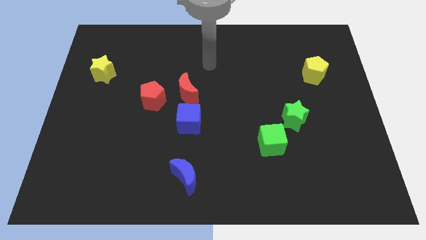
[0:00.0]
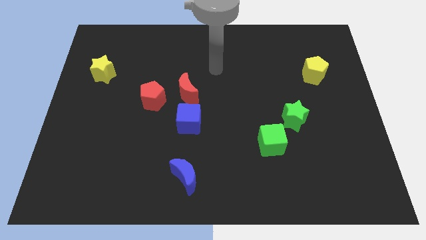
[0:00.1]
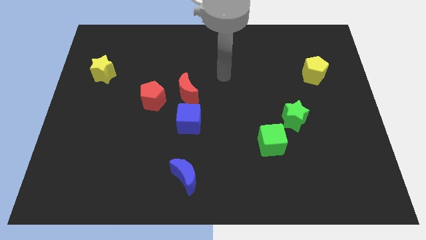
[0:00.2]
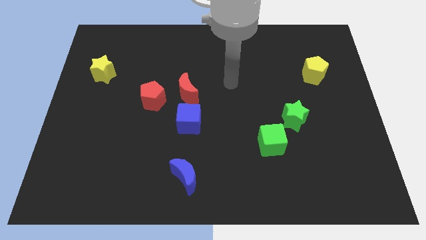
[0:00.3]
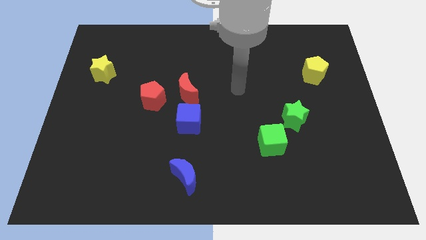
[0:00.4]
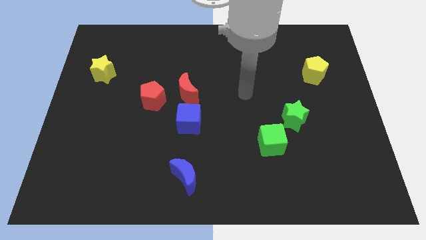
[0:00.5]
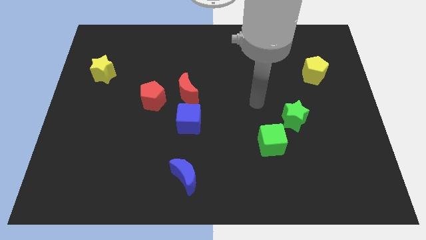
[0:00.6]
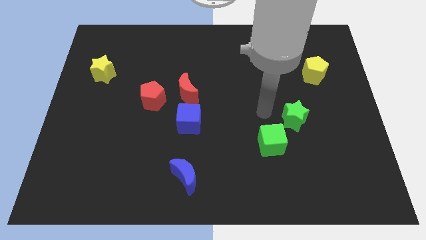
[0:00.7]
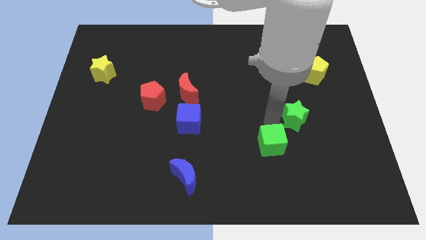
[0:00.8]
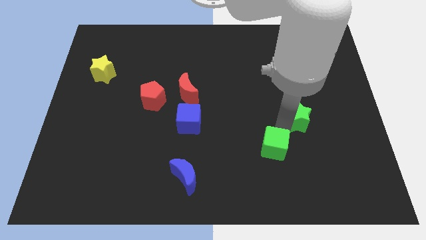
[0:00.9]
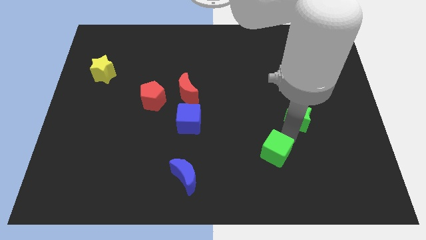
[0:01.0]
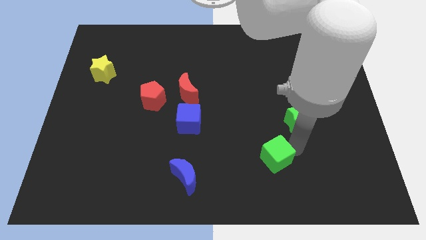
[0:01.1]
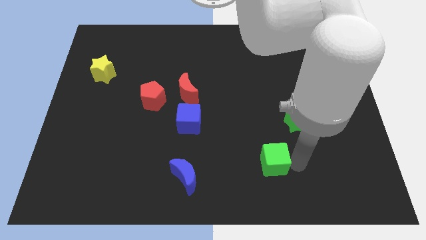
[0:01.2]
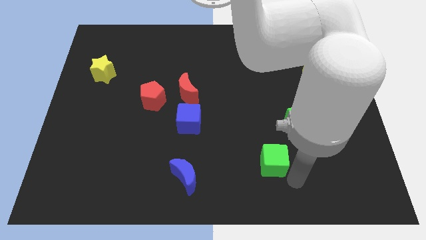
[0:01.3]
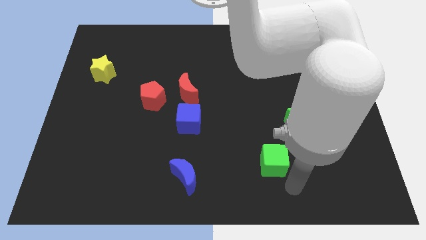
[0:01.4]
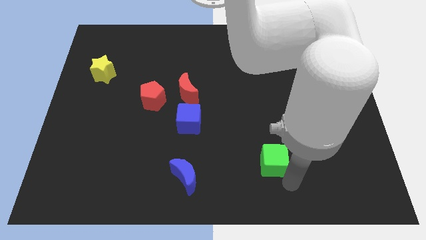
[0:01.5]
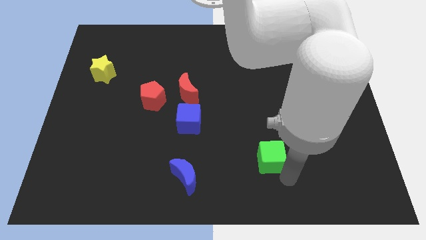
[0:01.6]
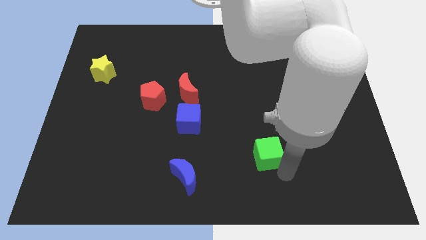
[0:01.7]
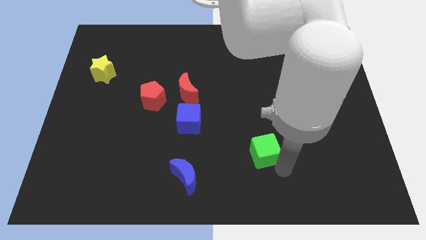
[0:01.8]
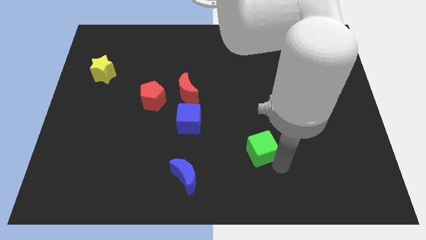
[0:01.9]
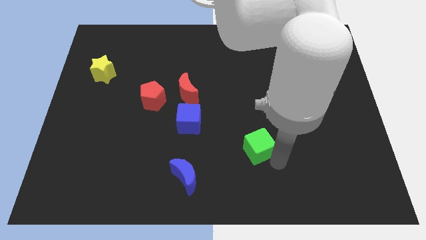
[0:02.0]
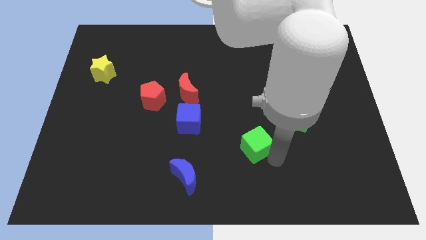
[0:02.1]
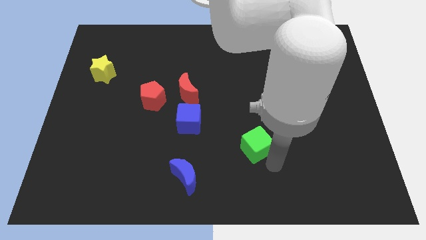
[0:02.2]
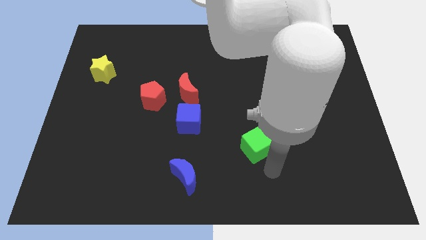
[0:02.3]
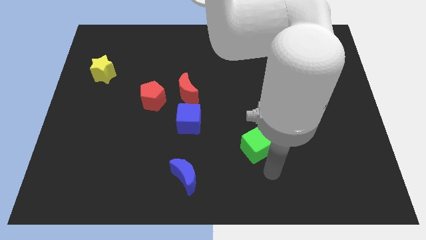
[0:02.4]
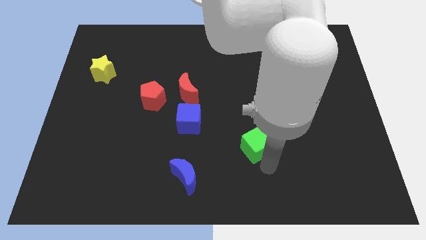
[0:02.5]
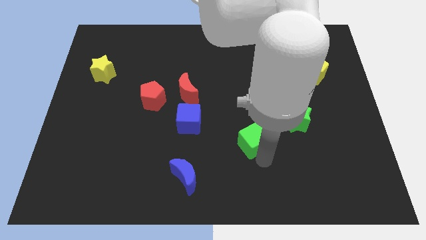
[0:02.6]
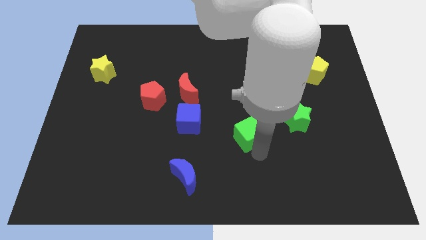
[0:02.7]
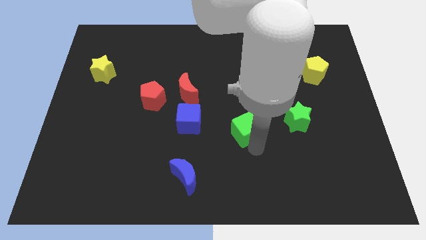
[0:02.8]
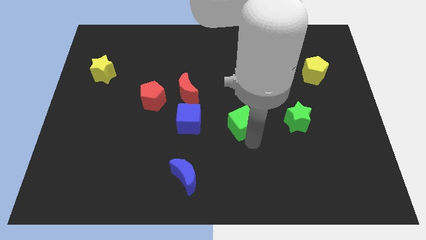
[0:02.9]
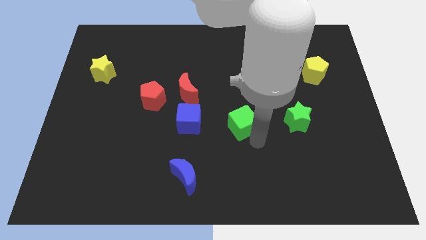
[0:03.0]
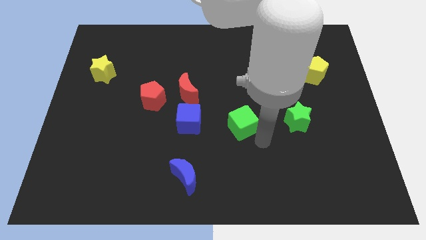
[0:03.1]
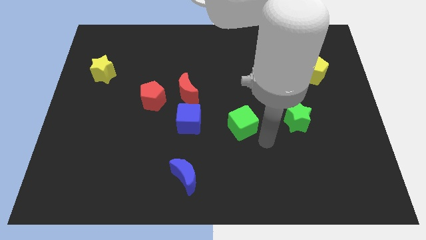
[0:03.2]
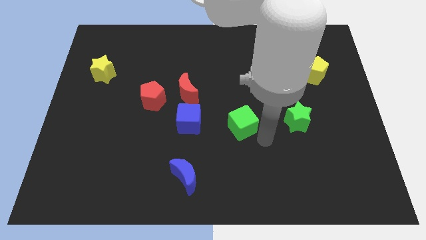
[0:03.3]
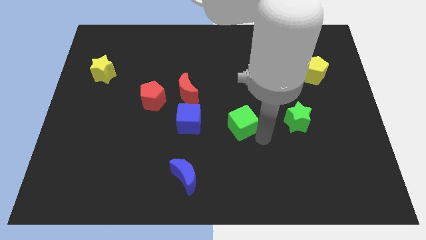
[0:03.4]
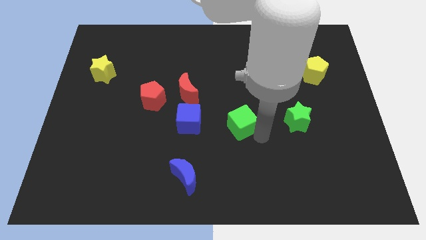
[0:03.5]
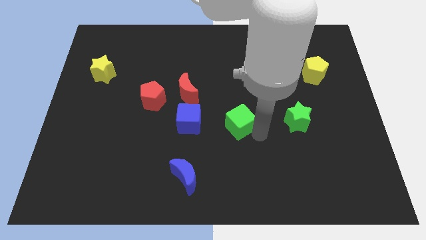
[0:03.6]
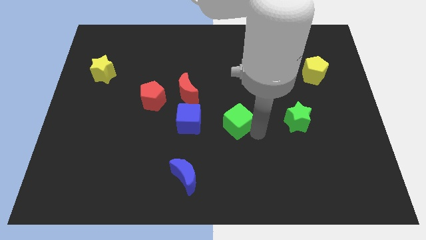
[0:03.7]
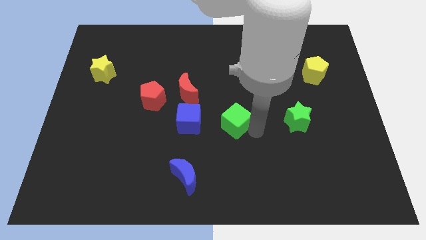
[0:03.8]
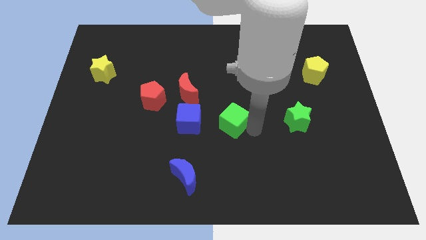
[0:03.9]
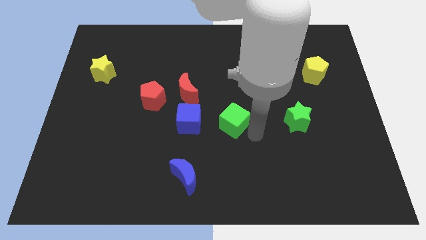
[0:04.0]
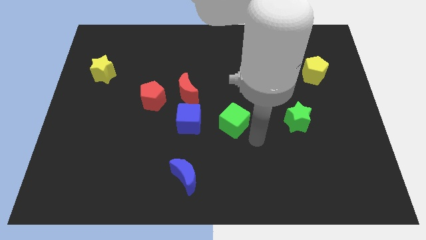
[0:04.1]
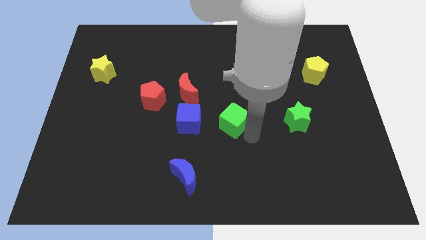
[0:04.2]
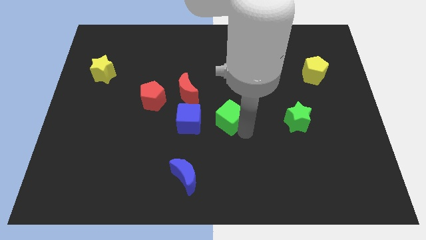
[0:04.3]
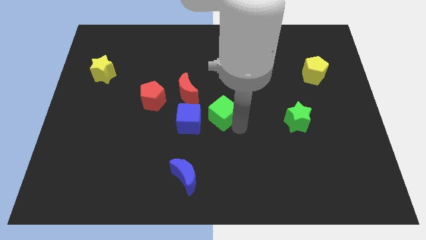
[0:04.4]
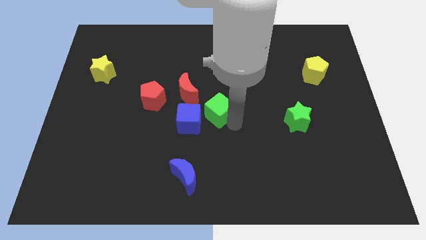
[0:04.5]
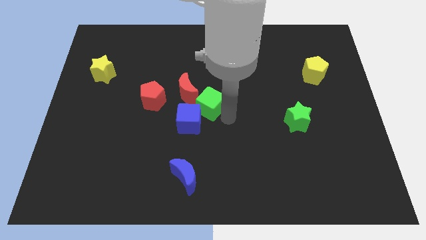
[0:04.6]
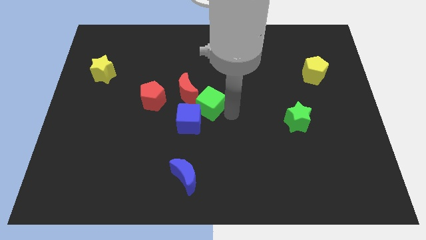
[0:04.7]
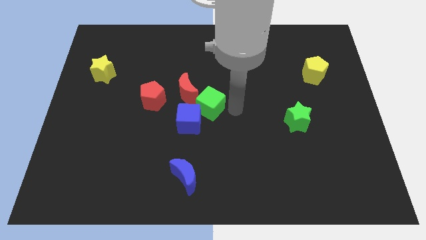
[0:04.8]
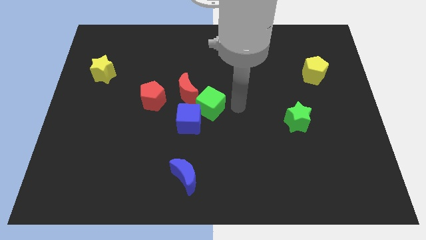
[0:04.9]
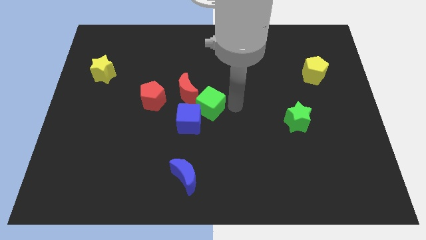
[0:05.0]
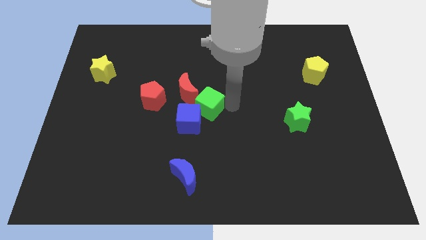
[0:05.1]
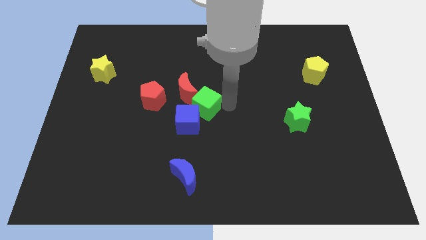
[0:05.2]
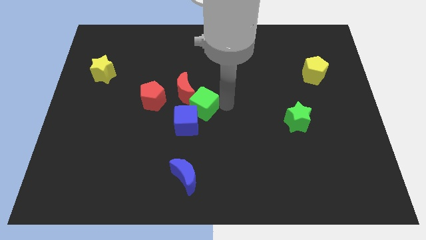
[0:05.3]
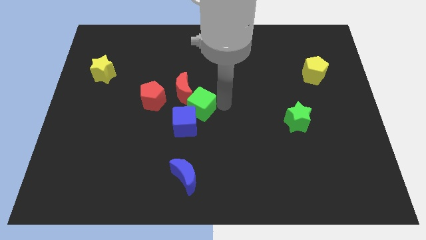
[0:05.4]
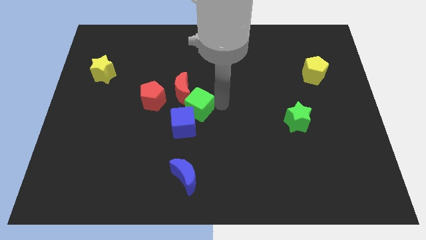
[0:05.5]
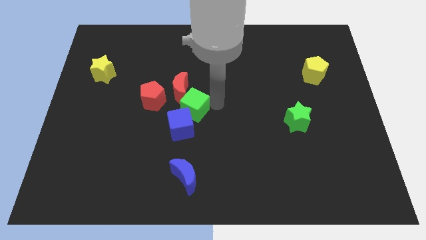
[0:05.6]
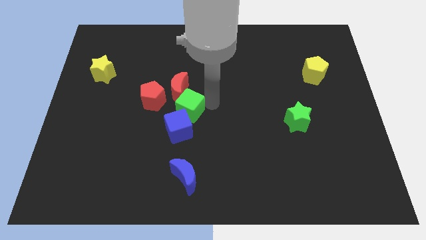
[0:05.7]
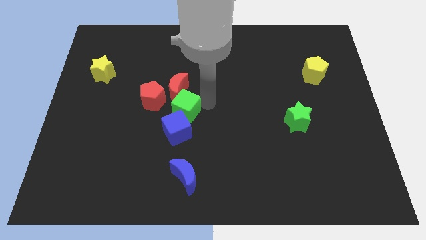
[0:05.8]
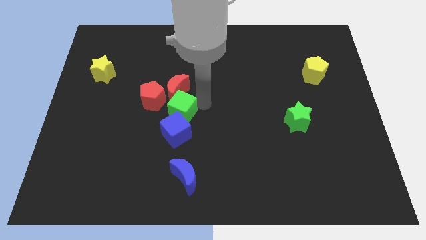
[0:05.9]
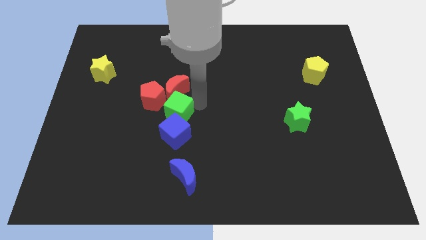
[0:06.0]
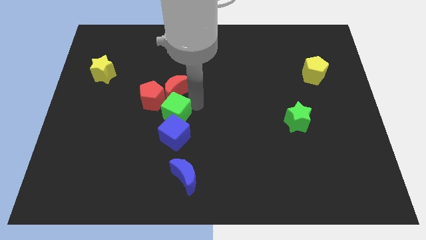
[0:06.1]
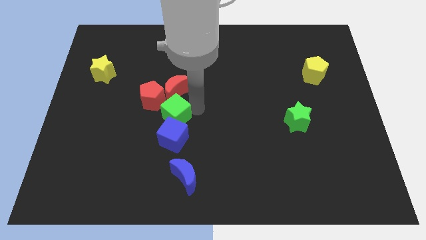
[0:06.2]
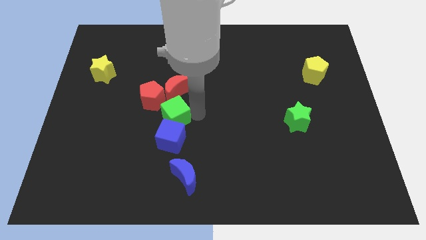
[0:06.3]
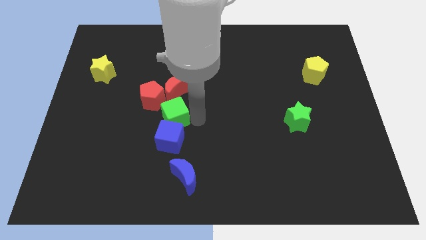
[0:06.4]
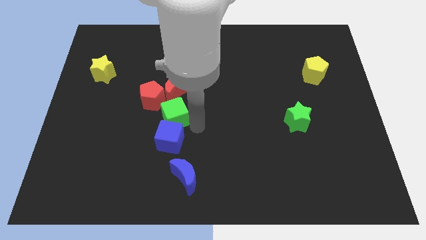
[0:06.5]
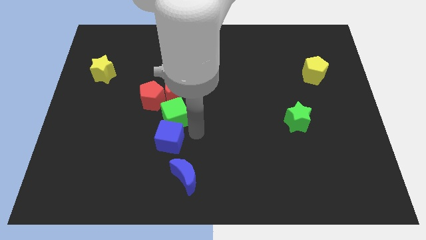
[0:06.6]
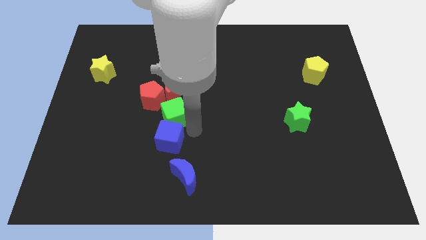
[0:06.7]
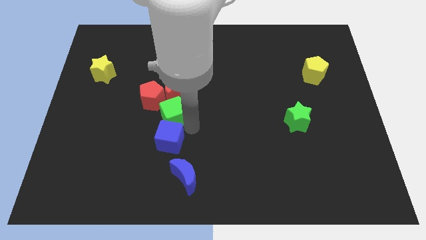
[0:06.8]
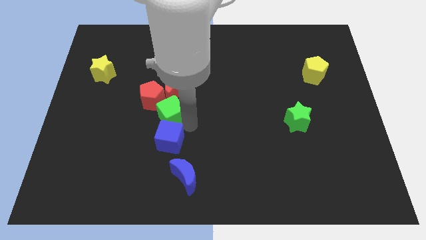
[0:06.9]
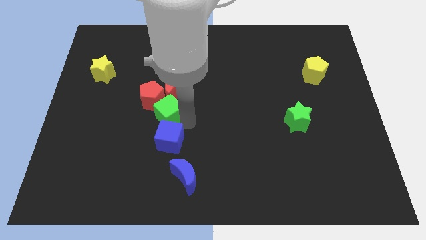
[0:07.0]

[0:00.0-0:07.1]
move the green cube close to the red pentagon

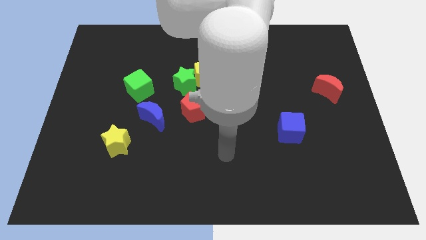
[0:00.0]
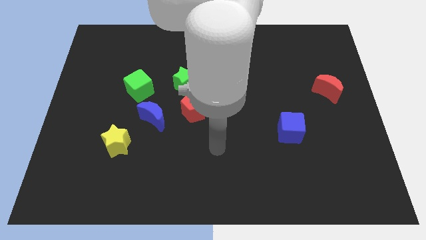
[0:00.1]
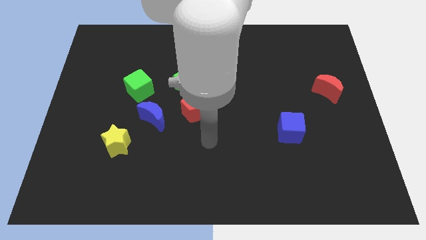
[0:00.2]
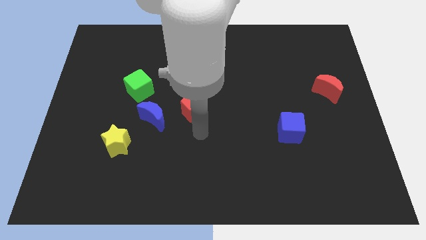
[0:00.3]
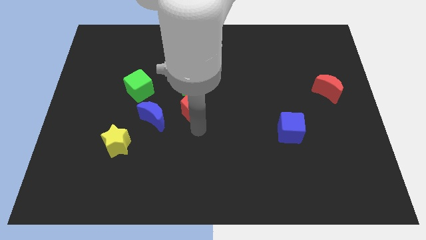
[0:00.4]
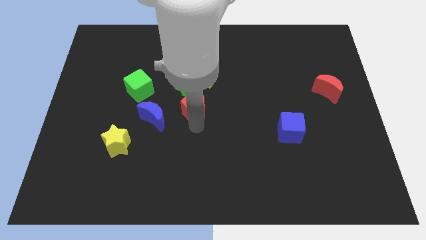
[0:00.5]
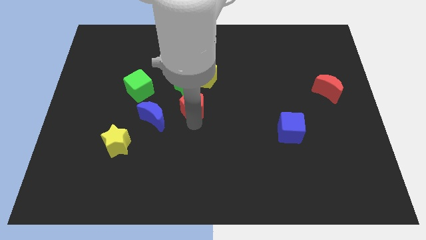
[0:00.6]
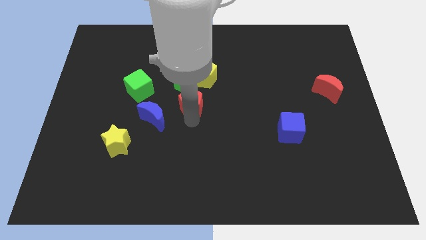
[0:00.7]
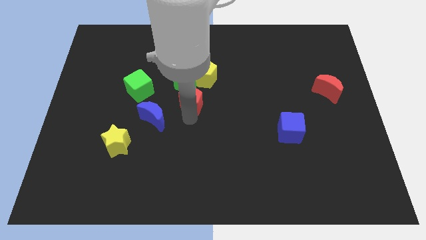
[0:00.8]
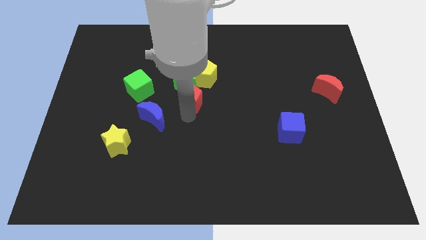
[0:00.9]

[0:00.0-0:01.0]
slide the red pentagon to the green star
